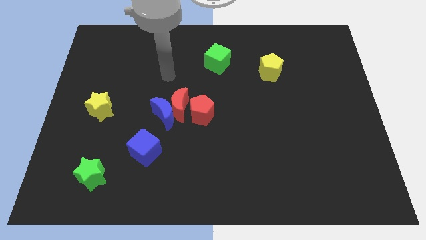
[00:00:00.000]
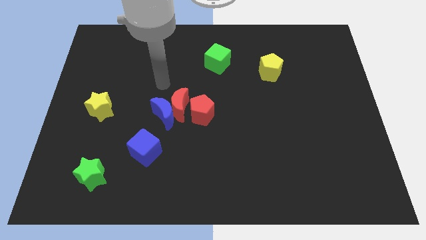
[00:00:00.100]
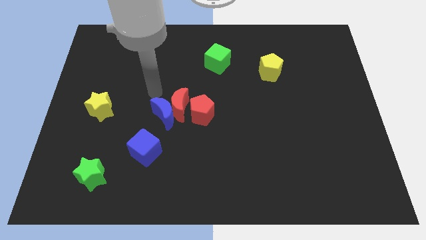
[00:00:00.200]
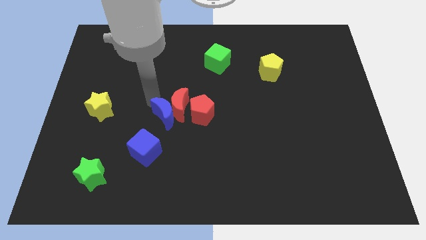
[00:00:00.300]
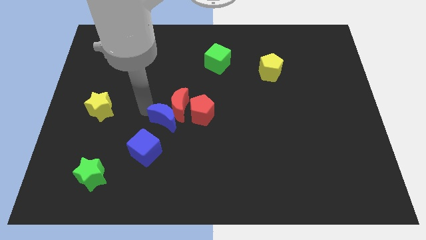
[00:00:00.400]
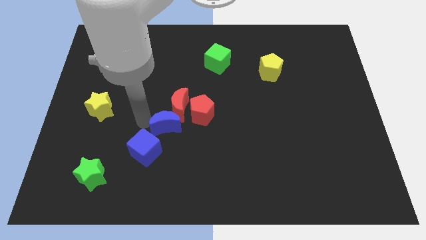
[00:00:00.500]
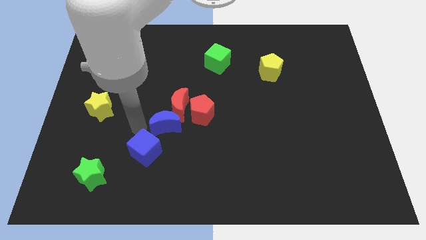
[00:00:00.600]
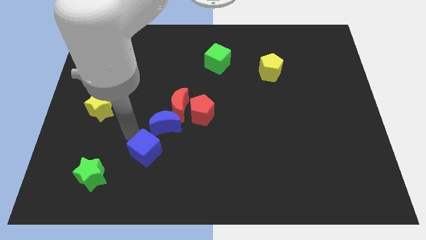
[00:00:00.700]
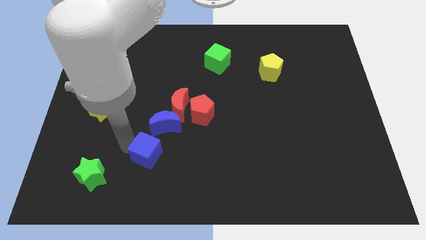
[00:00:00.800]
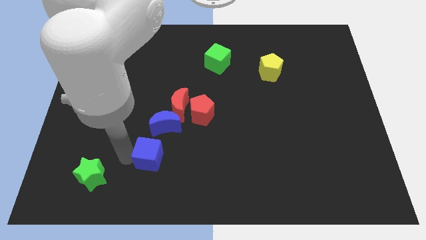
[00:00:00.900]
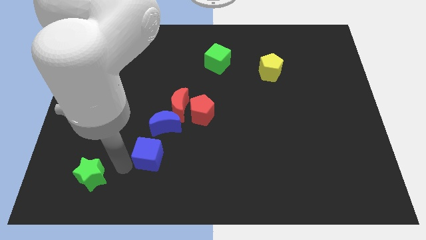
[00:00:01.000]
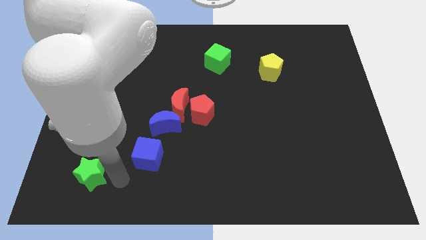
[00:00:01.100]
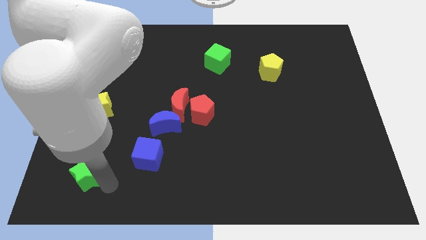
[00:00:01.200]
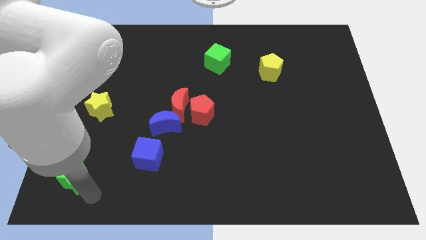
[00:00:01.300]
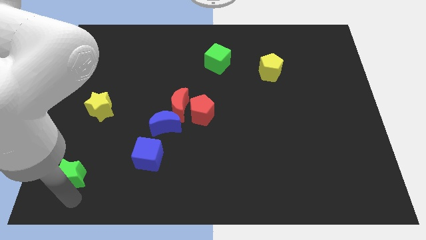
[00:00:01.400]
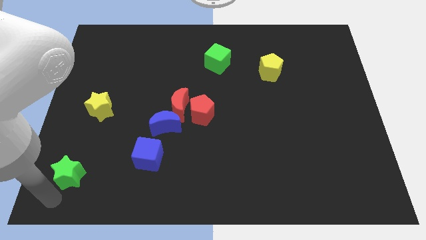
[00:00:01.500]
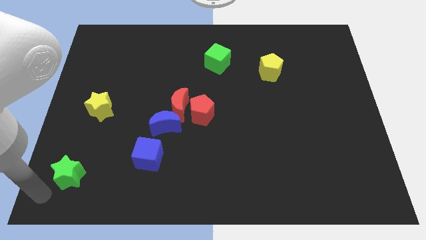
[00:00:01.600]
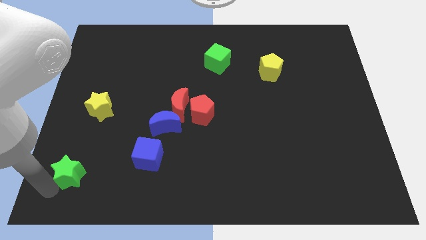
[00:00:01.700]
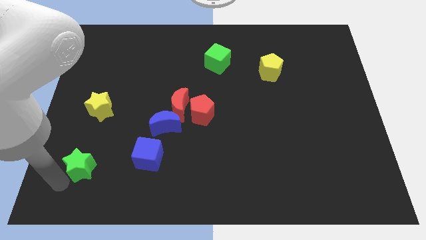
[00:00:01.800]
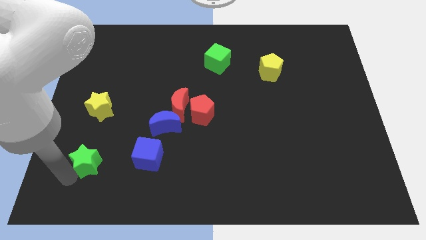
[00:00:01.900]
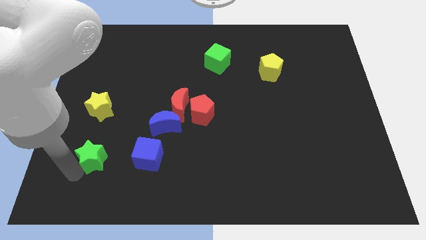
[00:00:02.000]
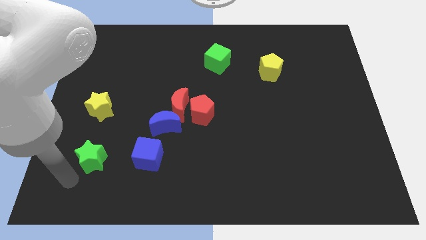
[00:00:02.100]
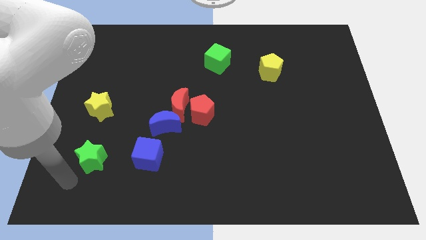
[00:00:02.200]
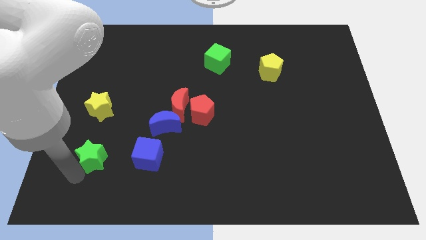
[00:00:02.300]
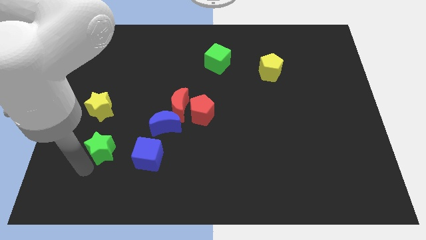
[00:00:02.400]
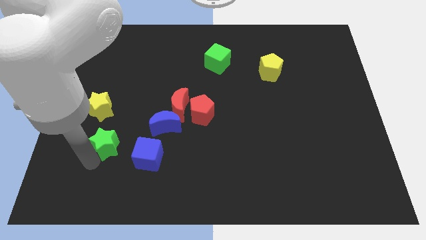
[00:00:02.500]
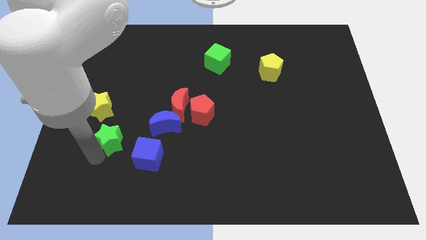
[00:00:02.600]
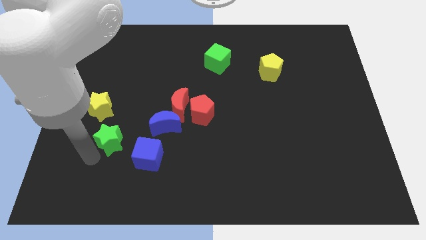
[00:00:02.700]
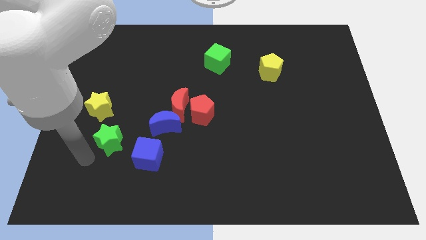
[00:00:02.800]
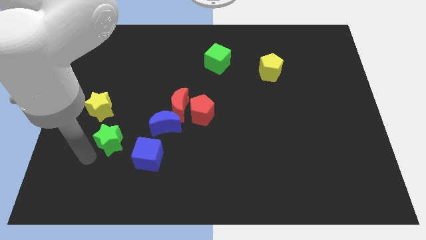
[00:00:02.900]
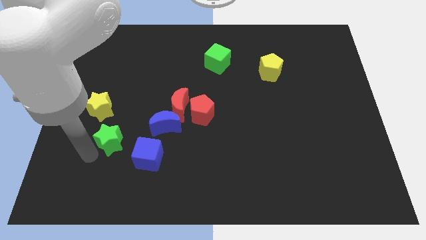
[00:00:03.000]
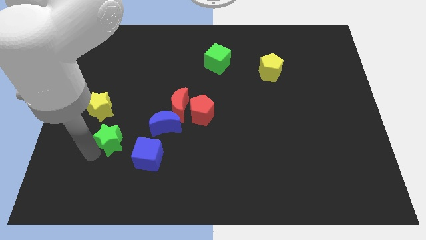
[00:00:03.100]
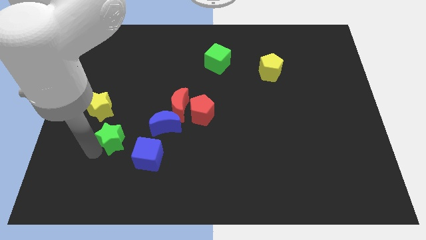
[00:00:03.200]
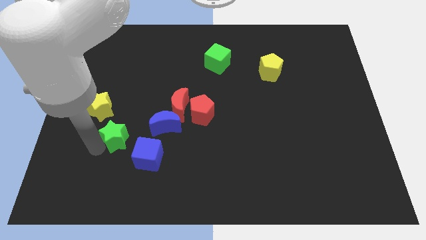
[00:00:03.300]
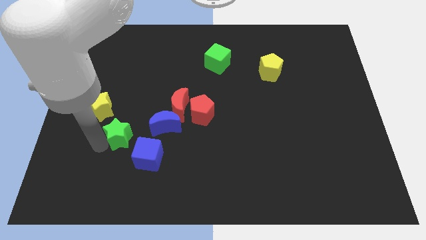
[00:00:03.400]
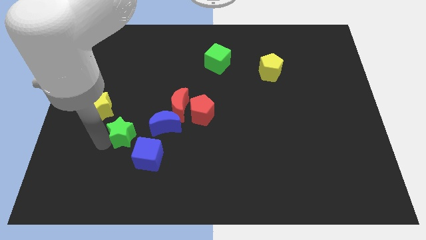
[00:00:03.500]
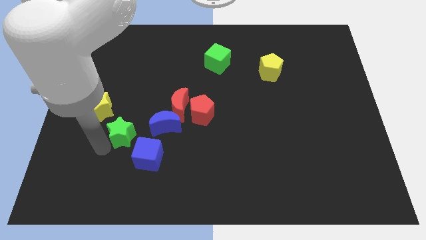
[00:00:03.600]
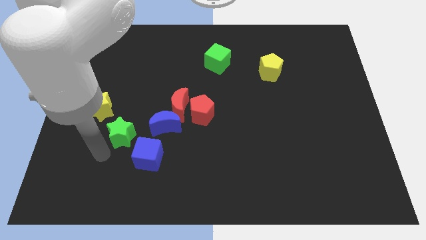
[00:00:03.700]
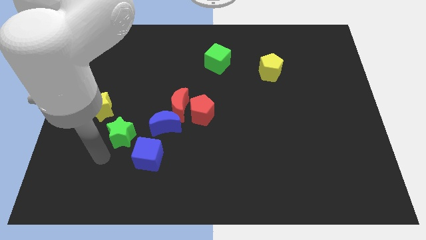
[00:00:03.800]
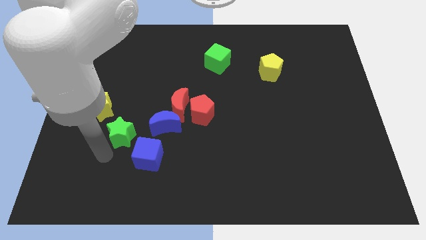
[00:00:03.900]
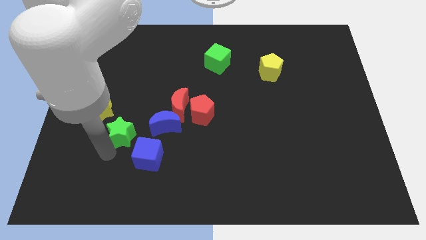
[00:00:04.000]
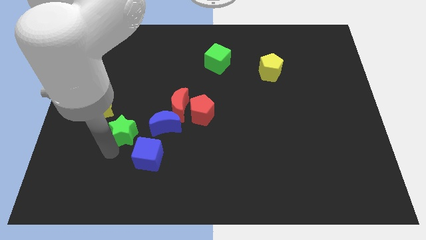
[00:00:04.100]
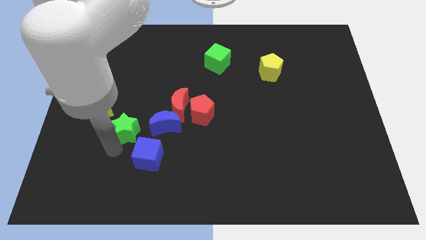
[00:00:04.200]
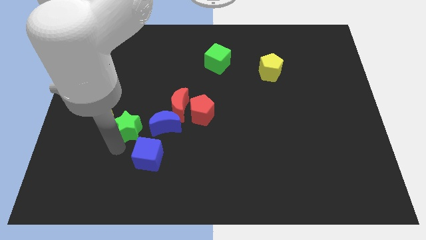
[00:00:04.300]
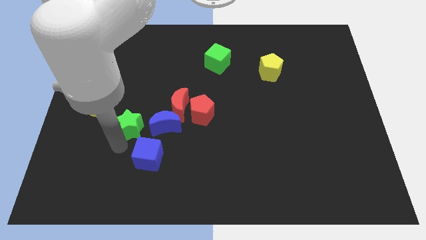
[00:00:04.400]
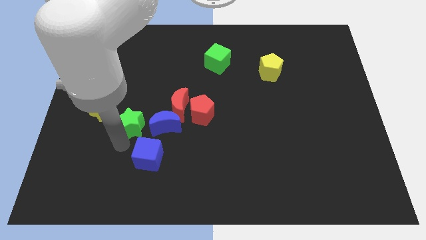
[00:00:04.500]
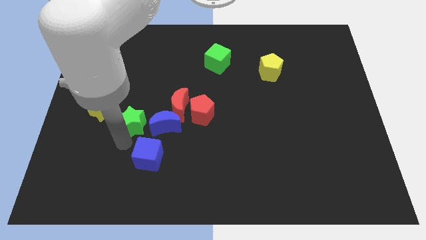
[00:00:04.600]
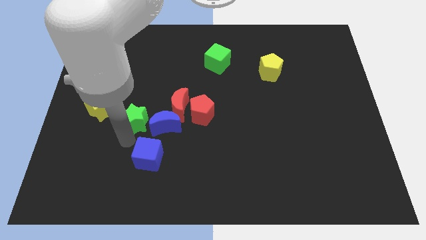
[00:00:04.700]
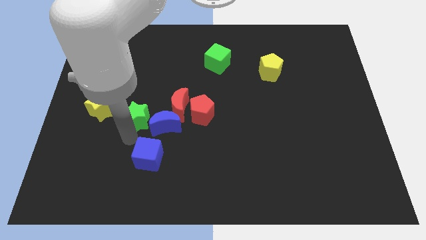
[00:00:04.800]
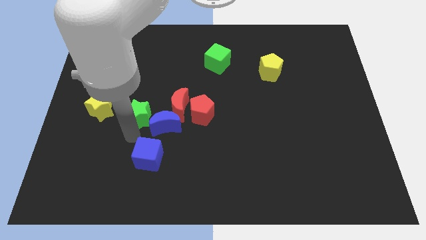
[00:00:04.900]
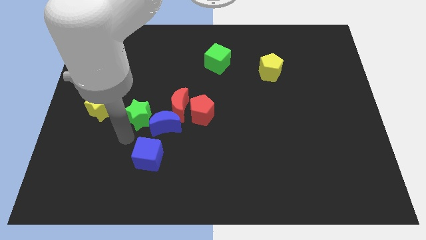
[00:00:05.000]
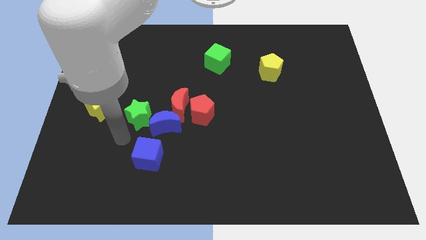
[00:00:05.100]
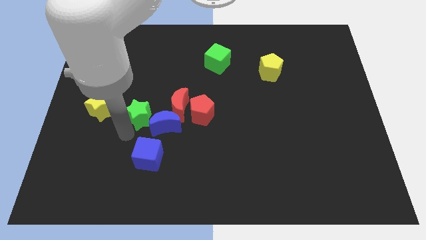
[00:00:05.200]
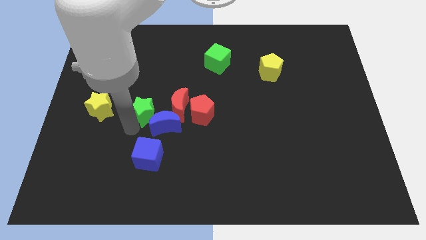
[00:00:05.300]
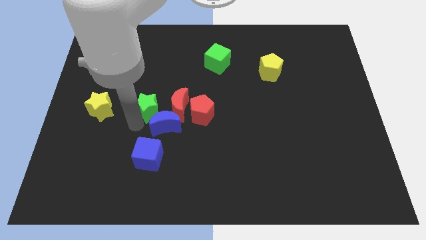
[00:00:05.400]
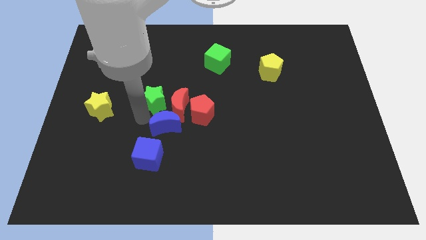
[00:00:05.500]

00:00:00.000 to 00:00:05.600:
move the green star up and to the right

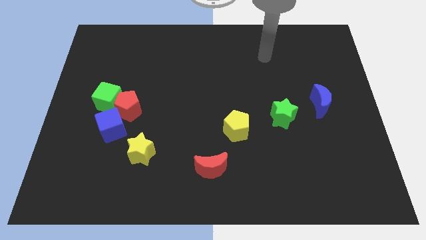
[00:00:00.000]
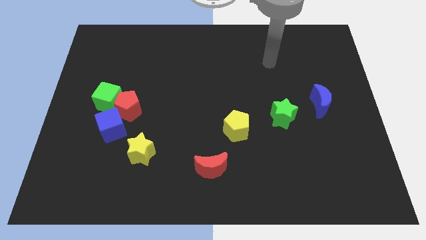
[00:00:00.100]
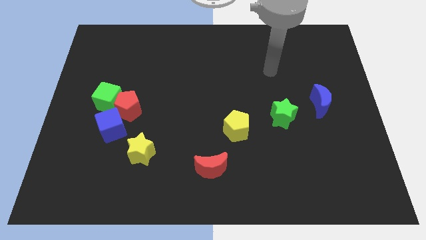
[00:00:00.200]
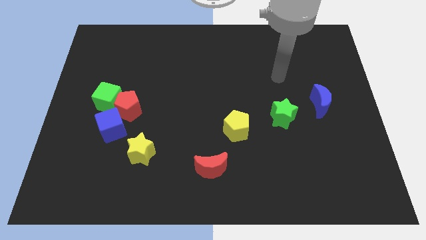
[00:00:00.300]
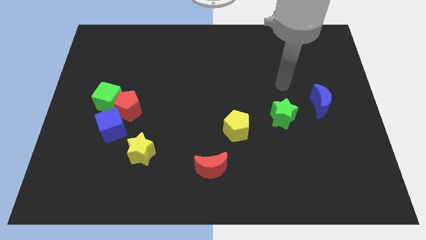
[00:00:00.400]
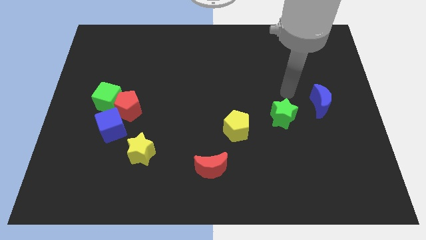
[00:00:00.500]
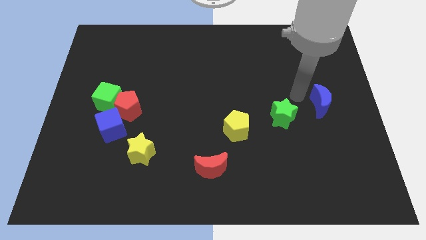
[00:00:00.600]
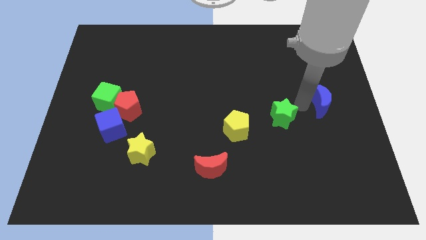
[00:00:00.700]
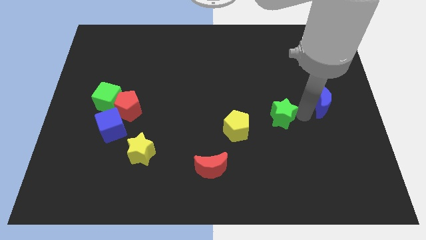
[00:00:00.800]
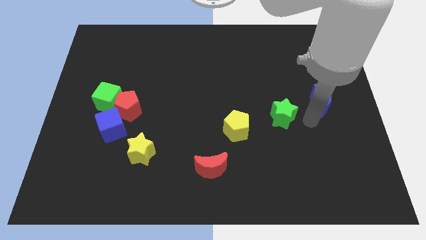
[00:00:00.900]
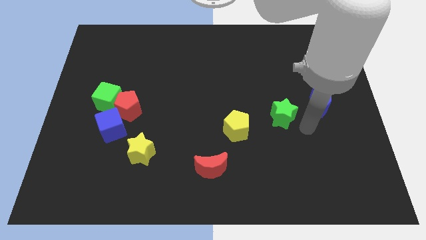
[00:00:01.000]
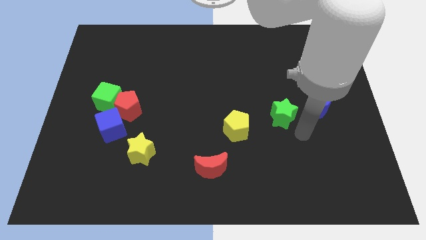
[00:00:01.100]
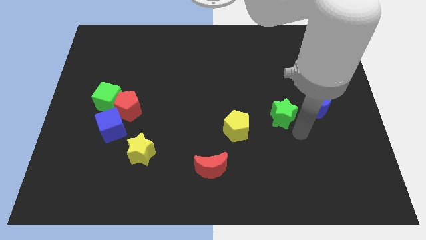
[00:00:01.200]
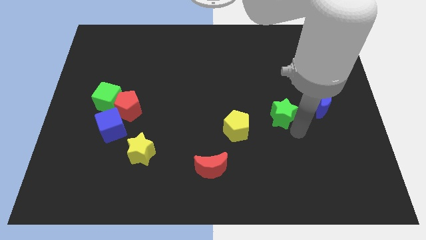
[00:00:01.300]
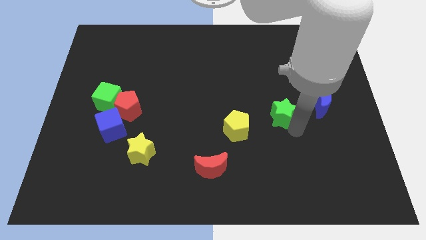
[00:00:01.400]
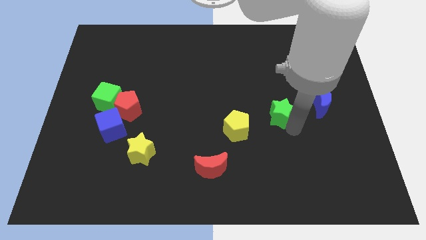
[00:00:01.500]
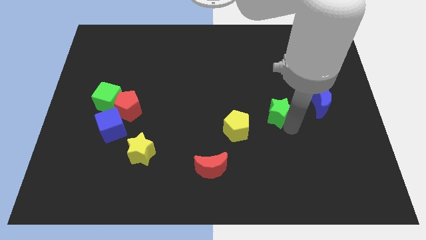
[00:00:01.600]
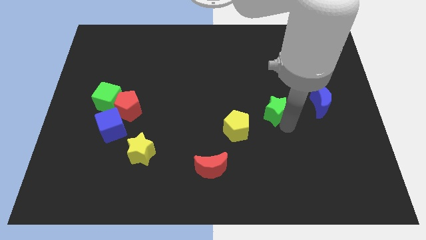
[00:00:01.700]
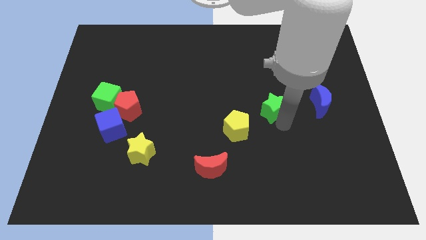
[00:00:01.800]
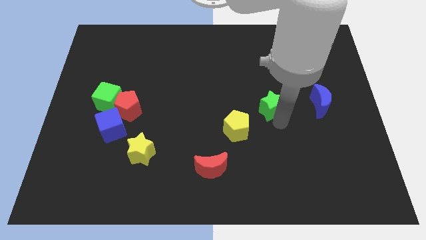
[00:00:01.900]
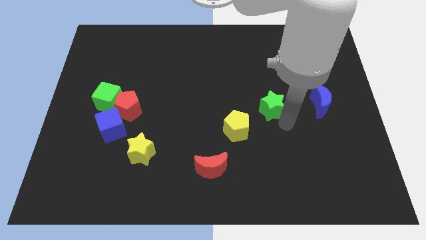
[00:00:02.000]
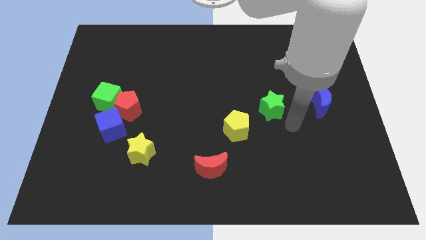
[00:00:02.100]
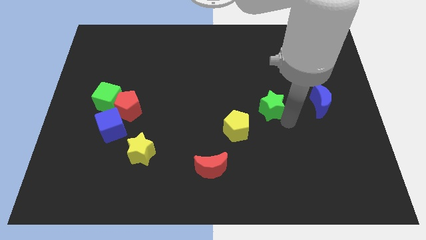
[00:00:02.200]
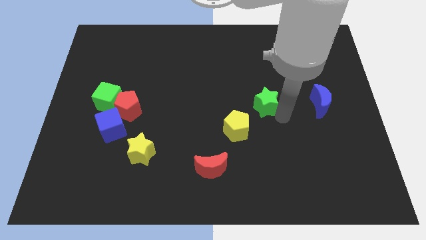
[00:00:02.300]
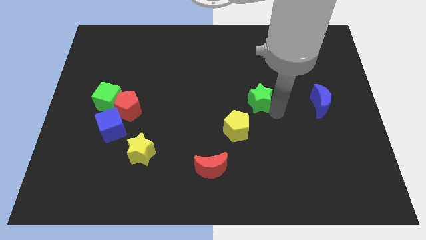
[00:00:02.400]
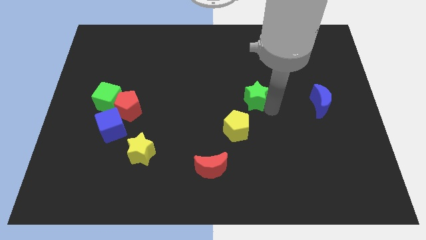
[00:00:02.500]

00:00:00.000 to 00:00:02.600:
push the green star a bit up and to the left diagonally
